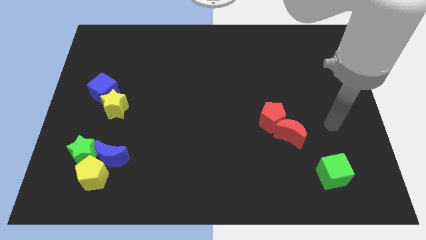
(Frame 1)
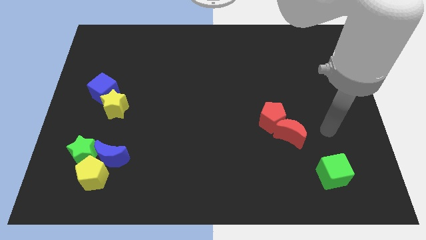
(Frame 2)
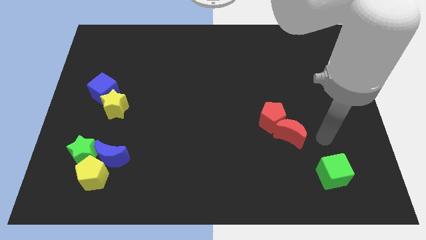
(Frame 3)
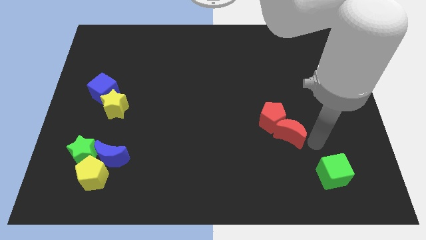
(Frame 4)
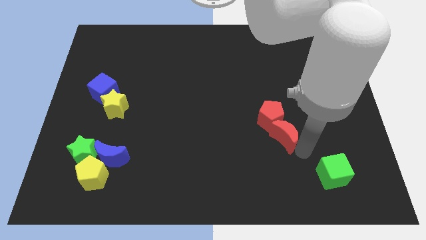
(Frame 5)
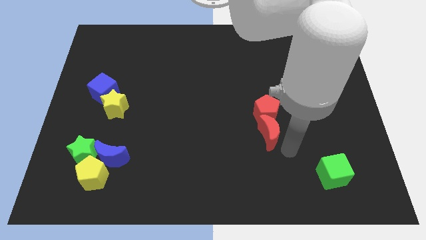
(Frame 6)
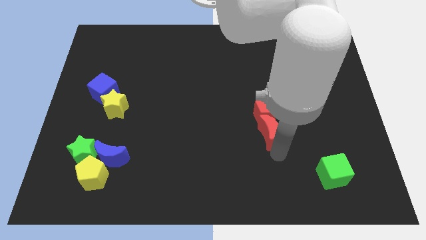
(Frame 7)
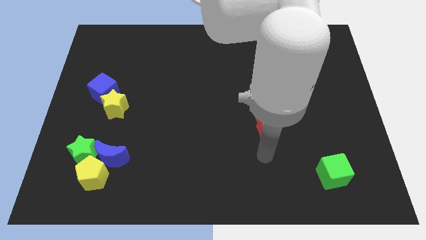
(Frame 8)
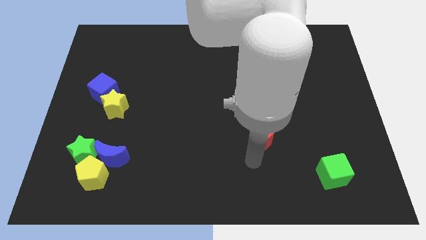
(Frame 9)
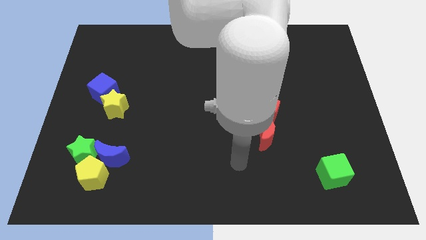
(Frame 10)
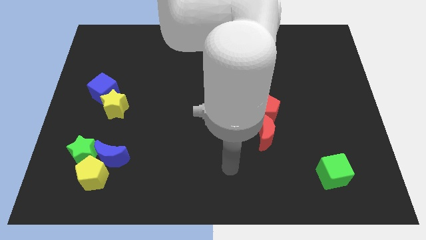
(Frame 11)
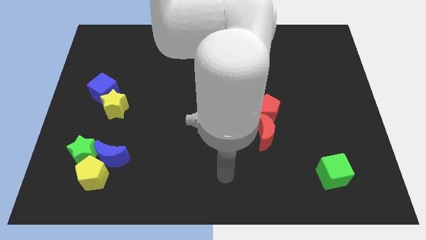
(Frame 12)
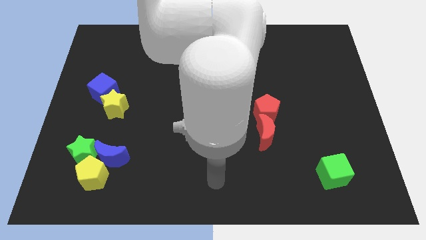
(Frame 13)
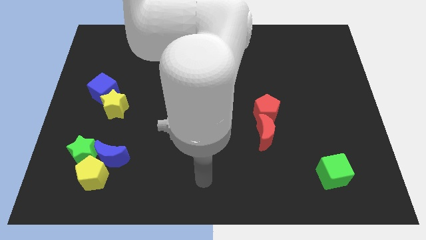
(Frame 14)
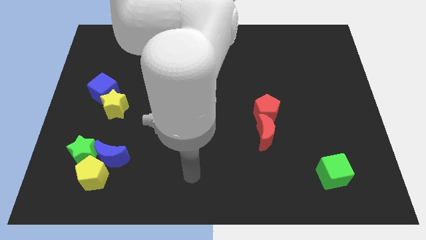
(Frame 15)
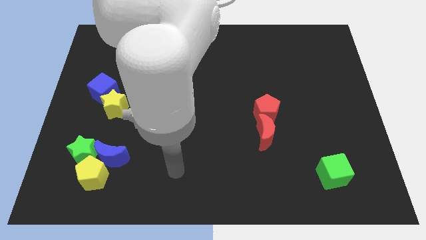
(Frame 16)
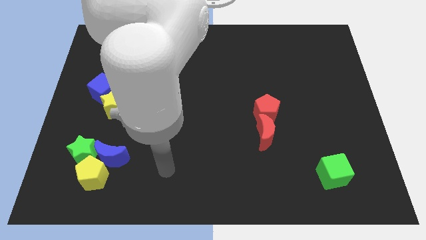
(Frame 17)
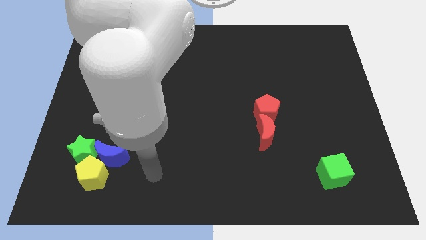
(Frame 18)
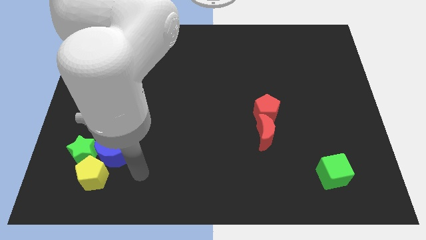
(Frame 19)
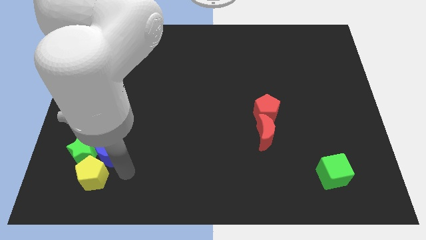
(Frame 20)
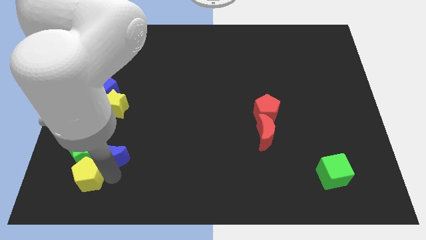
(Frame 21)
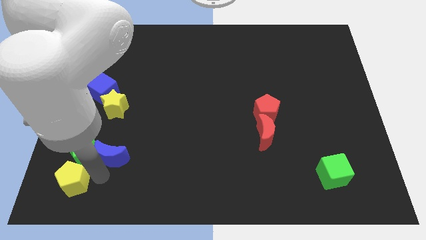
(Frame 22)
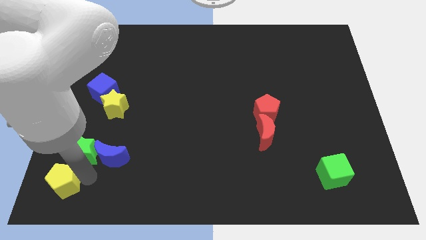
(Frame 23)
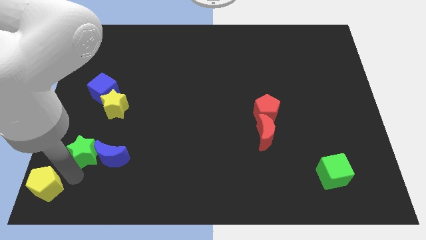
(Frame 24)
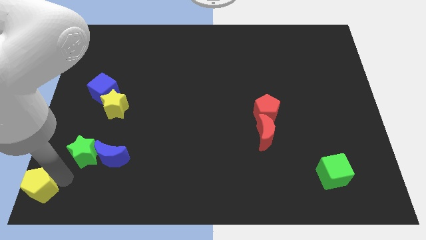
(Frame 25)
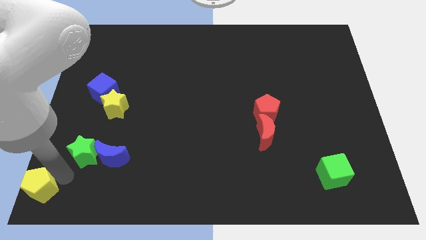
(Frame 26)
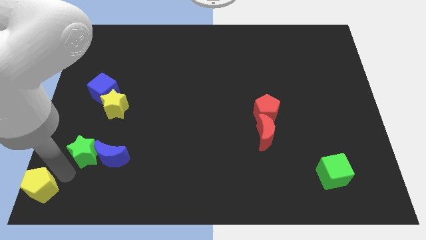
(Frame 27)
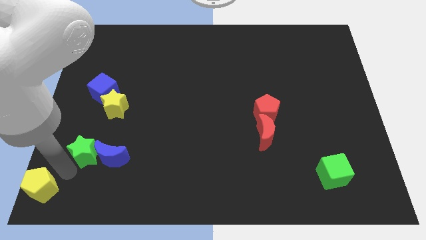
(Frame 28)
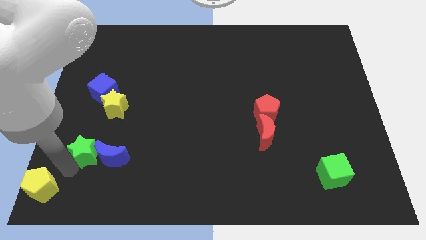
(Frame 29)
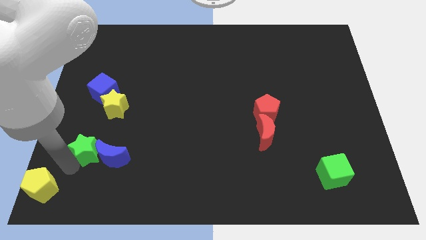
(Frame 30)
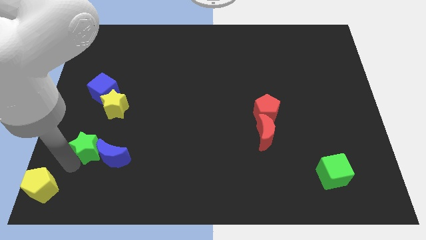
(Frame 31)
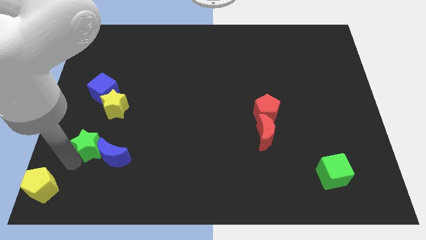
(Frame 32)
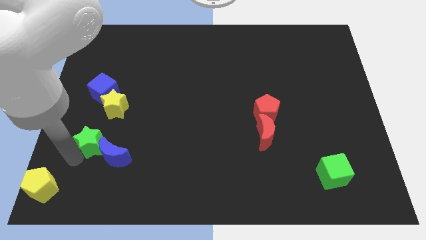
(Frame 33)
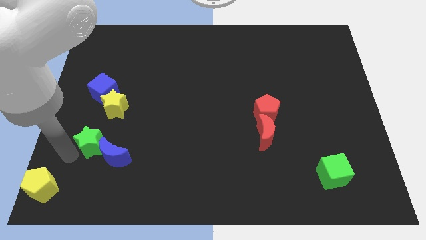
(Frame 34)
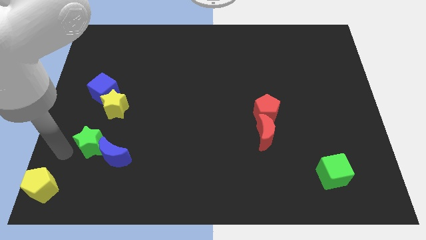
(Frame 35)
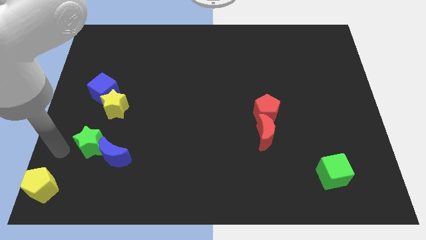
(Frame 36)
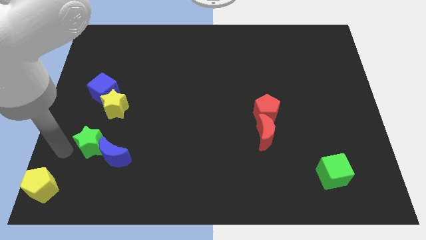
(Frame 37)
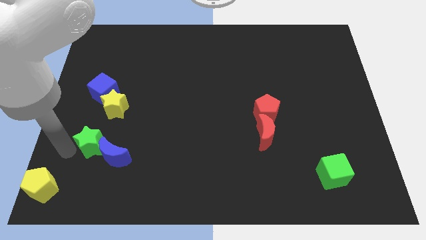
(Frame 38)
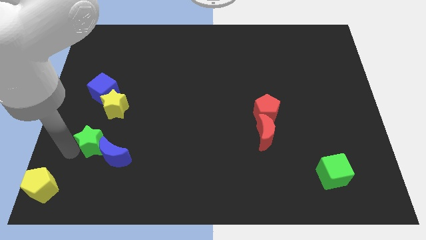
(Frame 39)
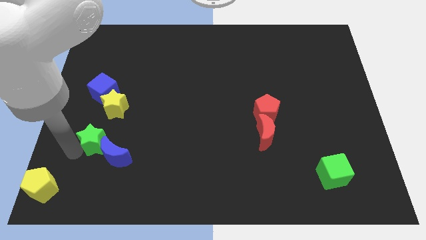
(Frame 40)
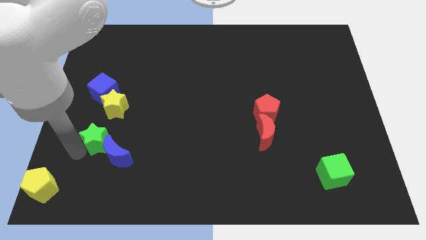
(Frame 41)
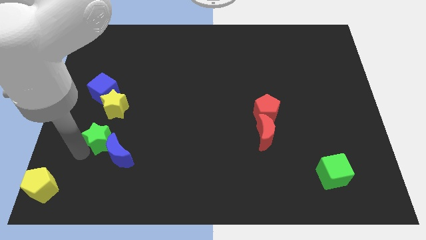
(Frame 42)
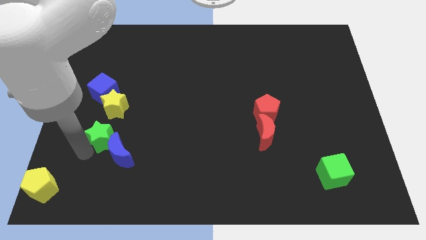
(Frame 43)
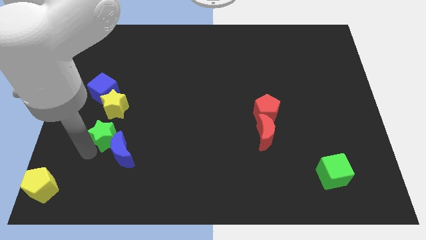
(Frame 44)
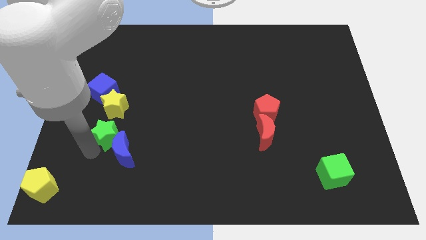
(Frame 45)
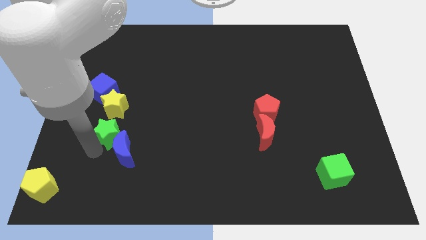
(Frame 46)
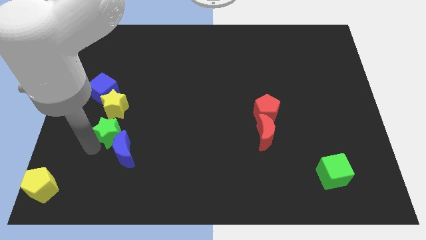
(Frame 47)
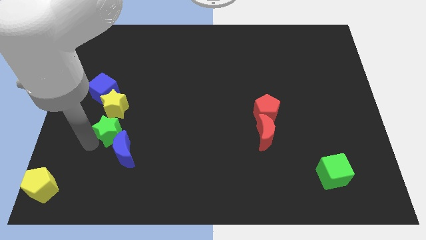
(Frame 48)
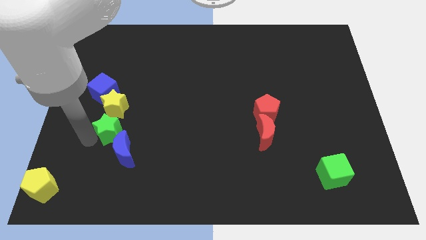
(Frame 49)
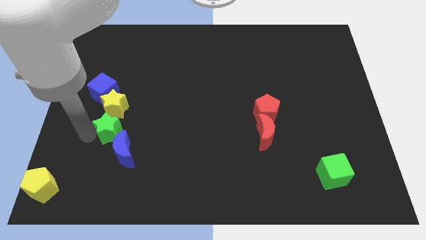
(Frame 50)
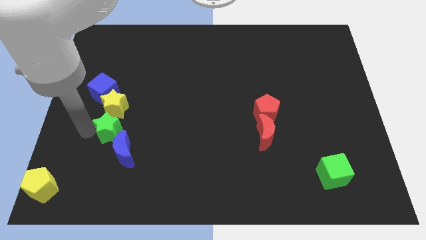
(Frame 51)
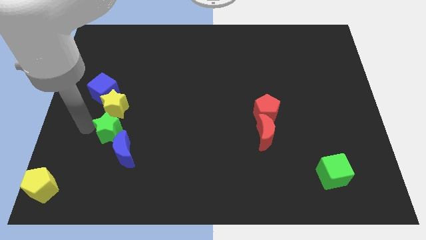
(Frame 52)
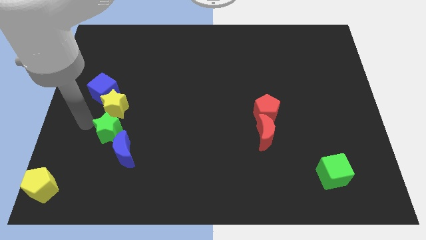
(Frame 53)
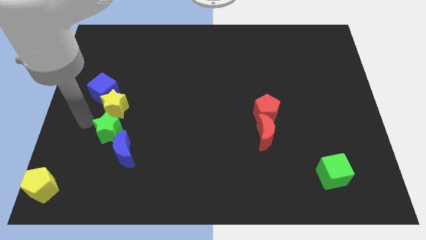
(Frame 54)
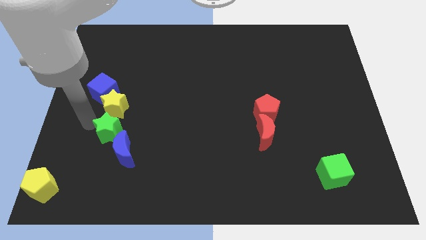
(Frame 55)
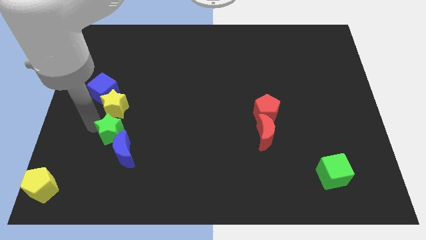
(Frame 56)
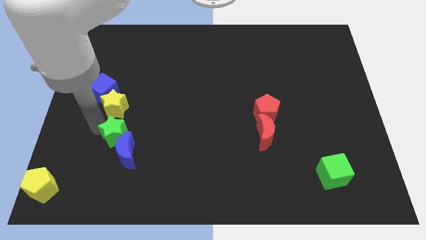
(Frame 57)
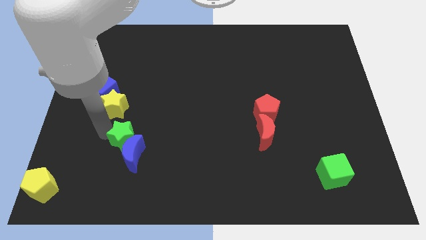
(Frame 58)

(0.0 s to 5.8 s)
push the green star to the right somewhat

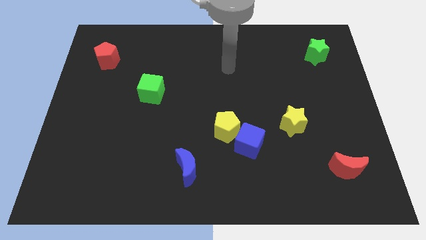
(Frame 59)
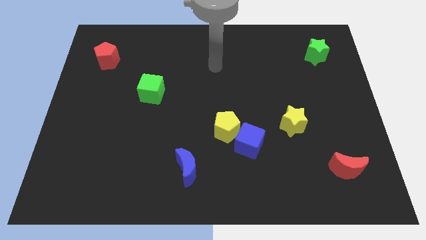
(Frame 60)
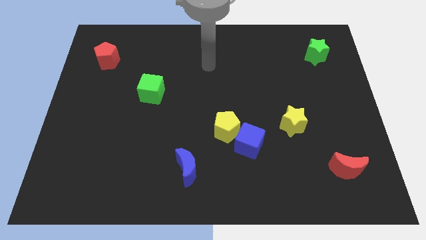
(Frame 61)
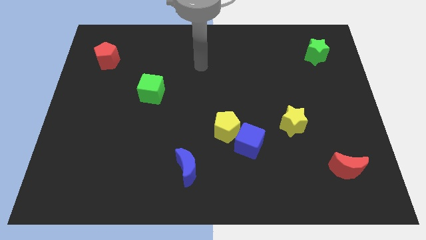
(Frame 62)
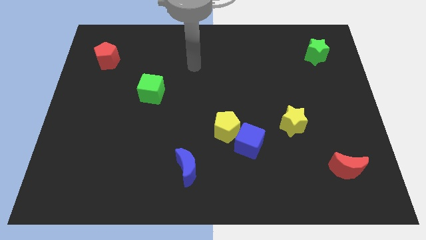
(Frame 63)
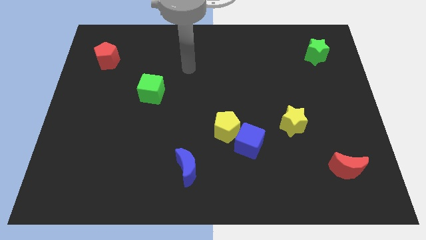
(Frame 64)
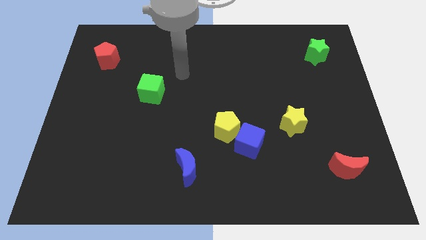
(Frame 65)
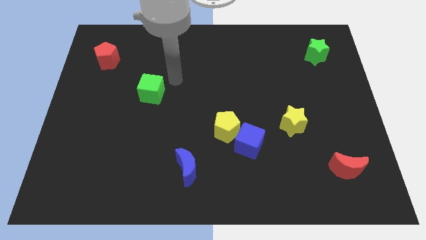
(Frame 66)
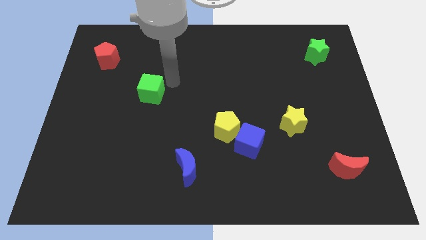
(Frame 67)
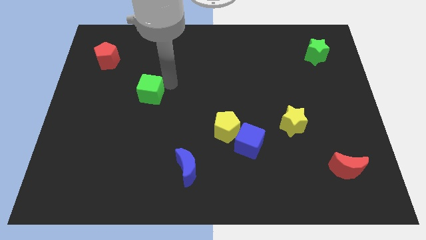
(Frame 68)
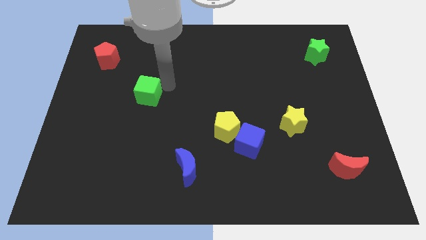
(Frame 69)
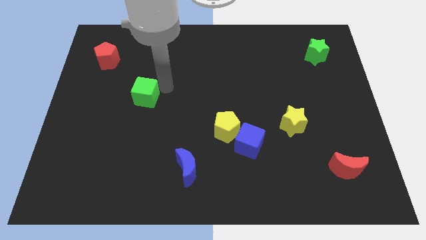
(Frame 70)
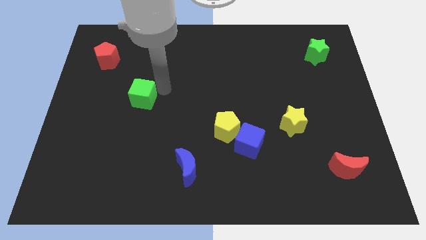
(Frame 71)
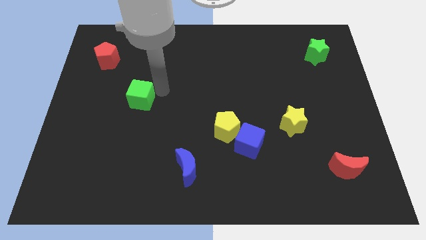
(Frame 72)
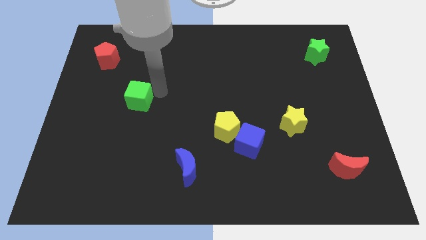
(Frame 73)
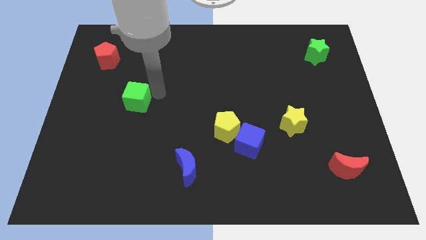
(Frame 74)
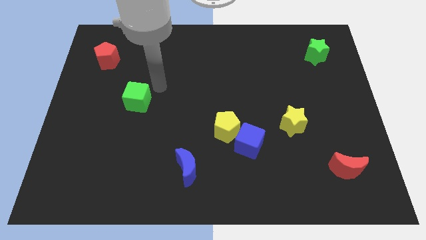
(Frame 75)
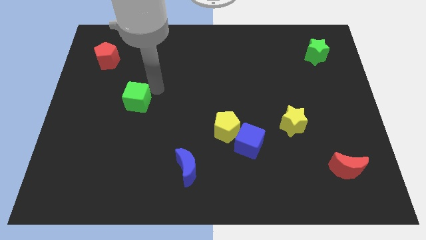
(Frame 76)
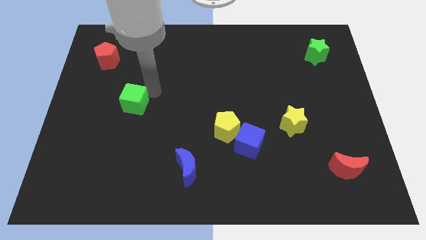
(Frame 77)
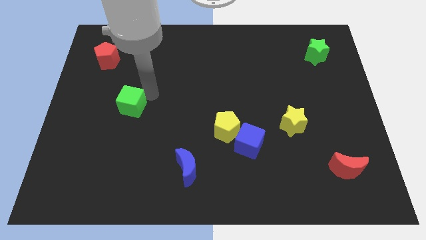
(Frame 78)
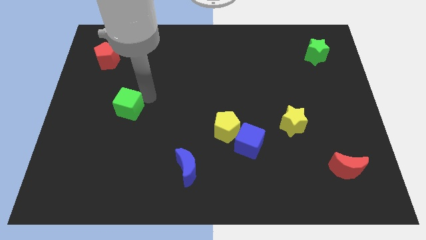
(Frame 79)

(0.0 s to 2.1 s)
slightly move the green cube downwards and to the left

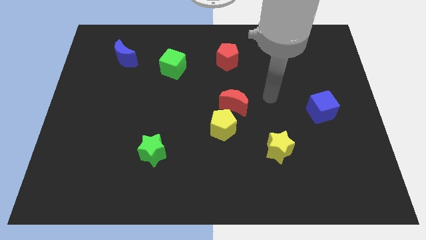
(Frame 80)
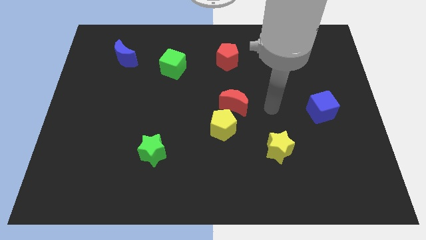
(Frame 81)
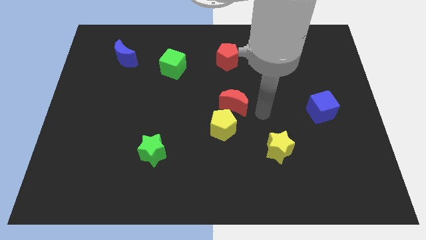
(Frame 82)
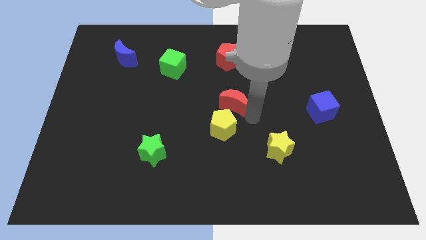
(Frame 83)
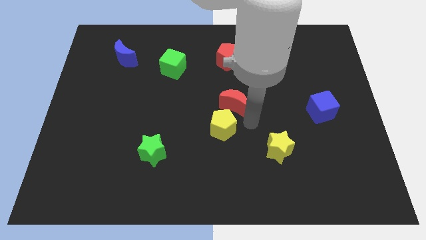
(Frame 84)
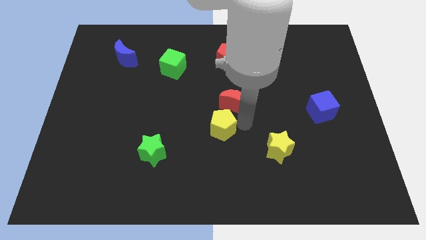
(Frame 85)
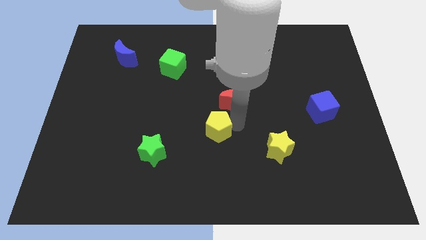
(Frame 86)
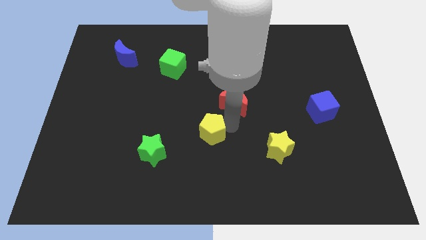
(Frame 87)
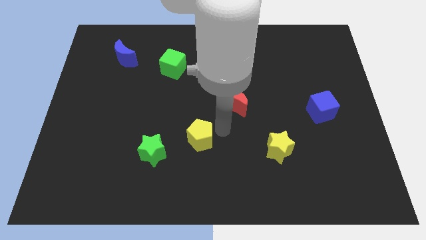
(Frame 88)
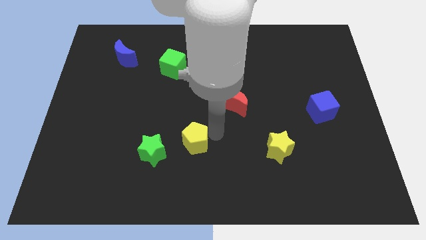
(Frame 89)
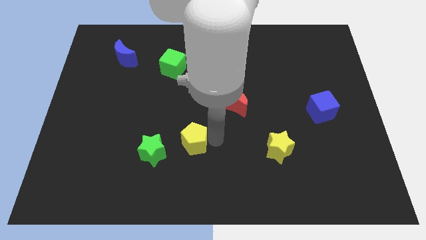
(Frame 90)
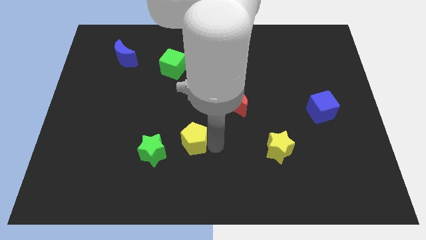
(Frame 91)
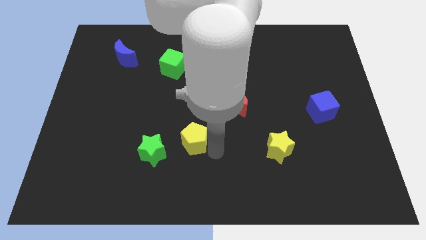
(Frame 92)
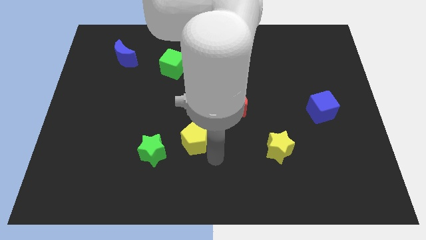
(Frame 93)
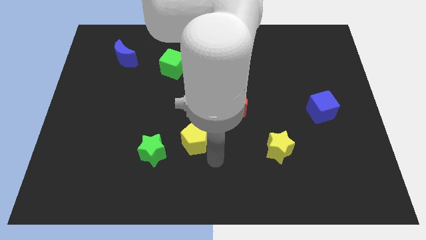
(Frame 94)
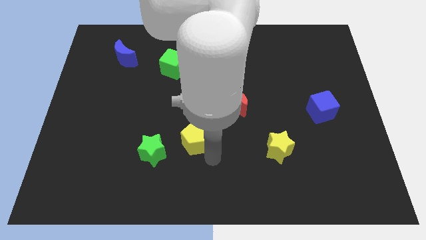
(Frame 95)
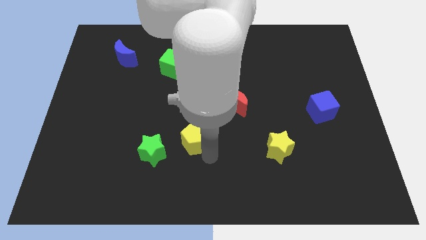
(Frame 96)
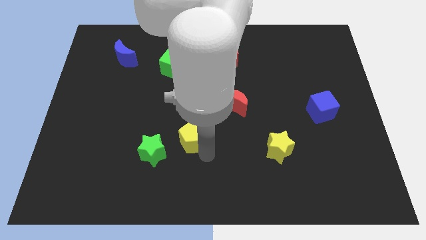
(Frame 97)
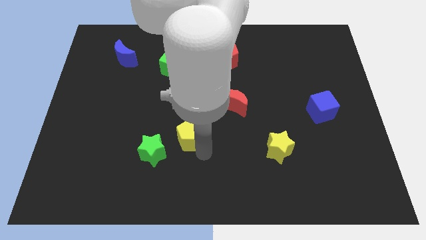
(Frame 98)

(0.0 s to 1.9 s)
slightly move the yellow pentagon to the left
